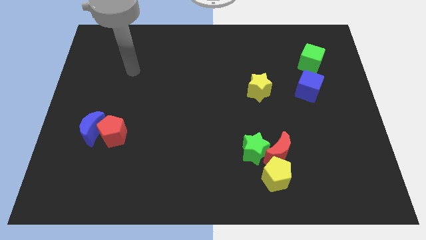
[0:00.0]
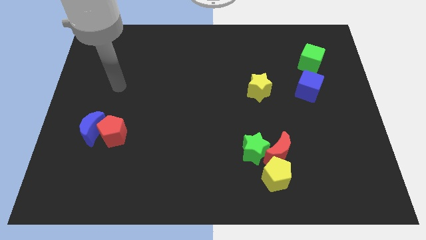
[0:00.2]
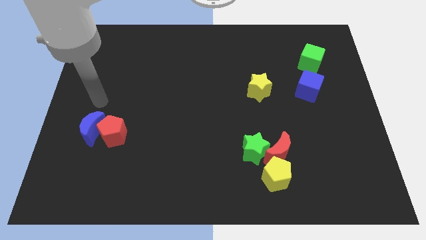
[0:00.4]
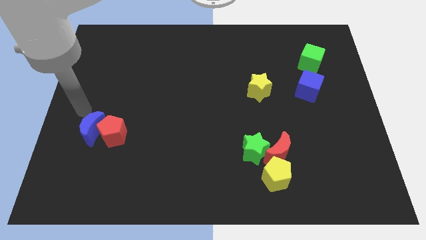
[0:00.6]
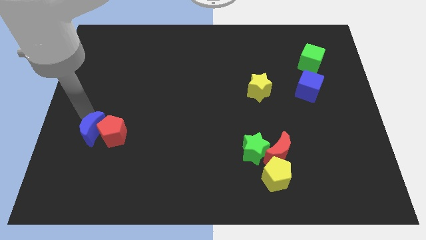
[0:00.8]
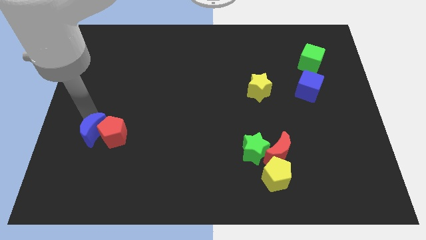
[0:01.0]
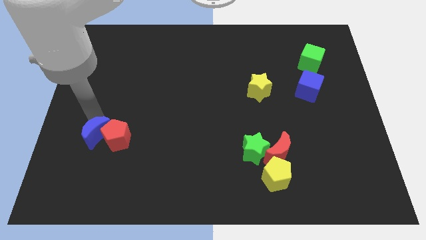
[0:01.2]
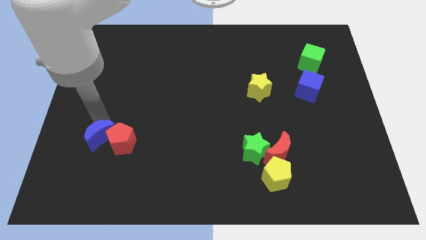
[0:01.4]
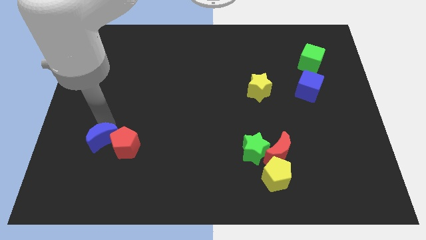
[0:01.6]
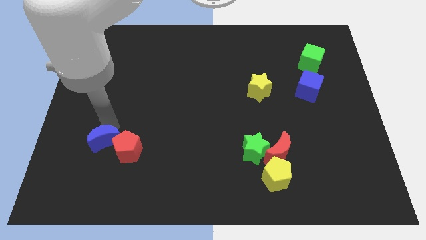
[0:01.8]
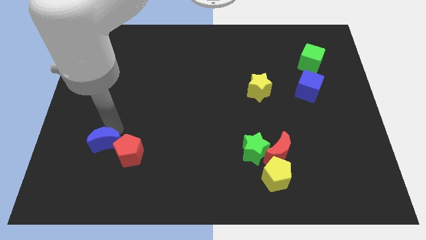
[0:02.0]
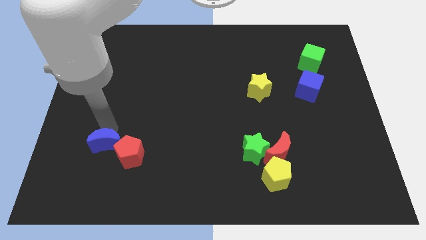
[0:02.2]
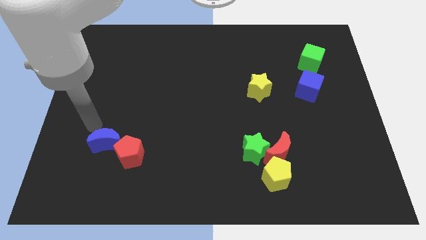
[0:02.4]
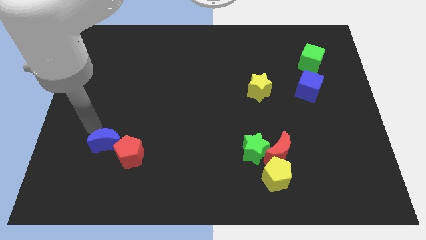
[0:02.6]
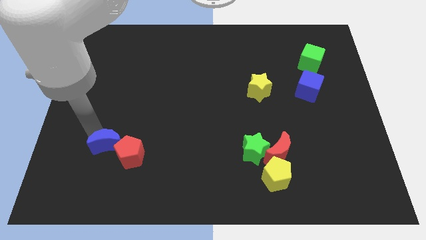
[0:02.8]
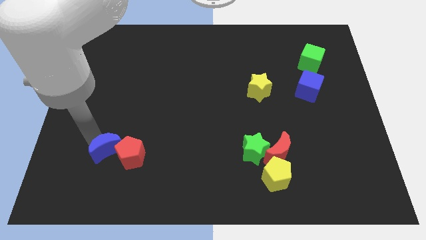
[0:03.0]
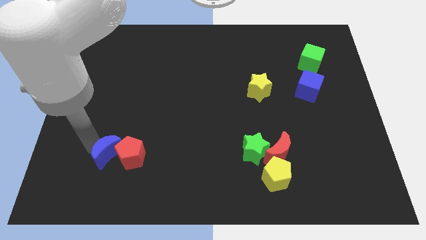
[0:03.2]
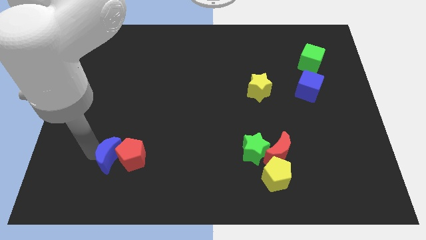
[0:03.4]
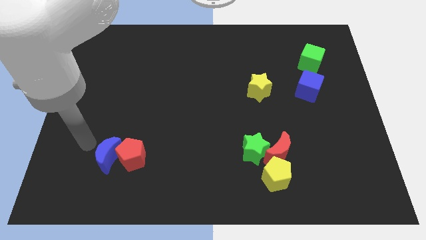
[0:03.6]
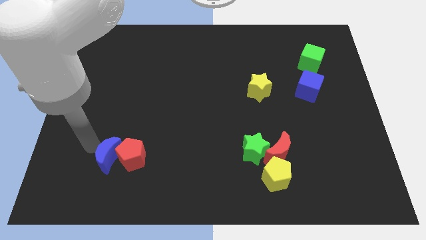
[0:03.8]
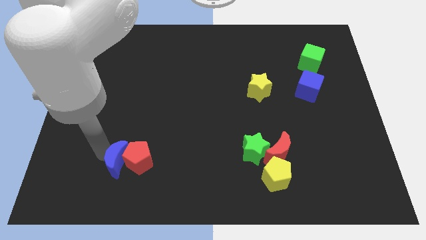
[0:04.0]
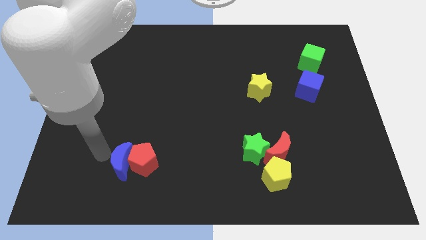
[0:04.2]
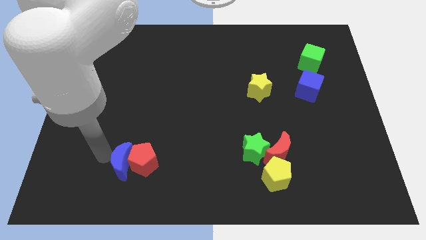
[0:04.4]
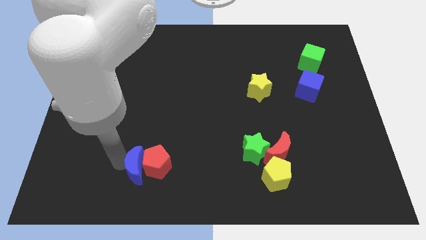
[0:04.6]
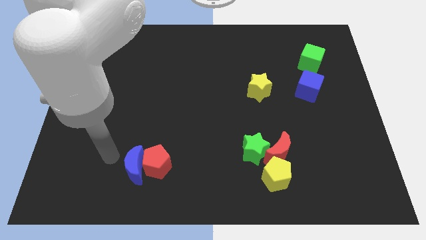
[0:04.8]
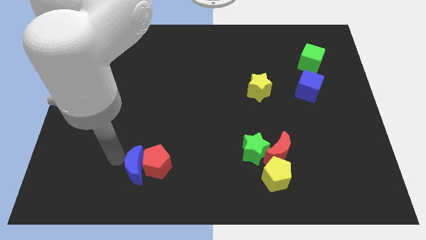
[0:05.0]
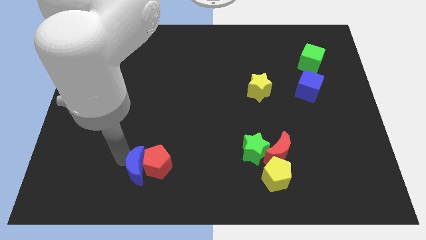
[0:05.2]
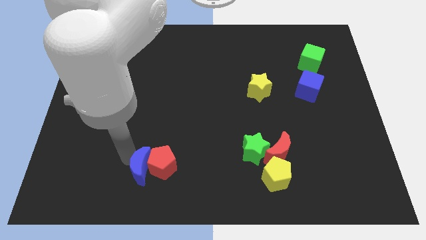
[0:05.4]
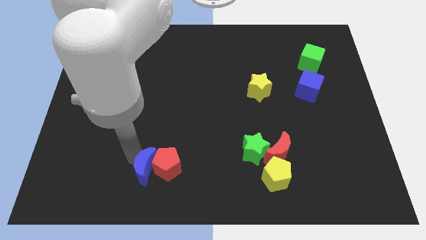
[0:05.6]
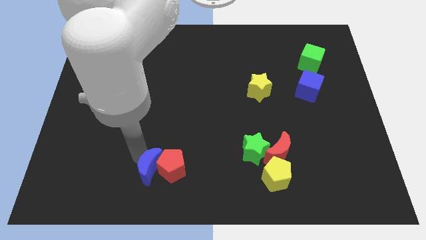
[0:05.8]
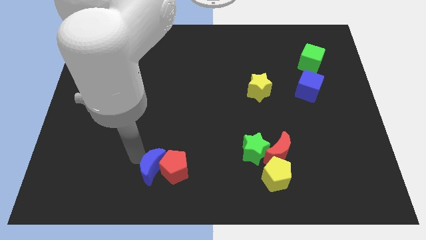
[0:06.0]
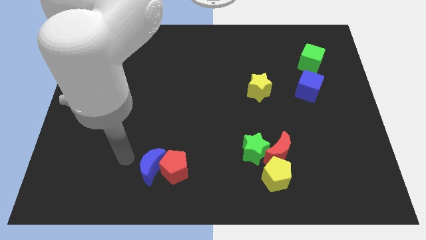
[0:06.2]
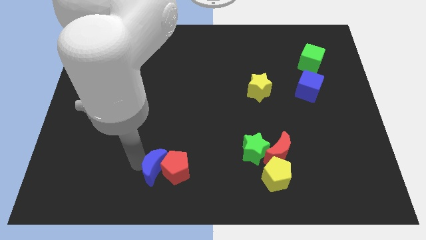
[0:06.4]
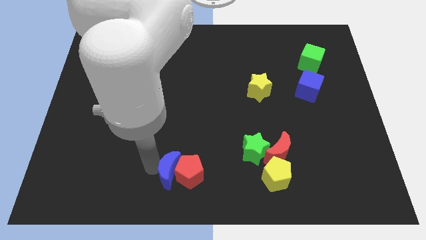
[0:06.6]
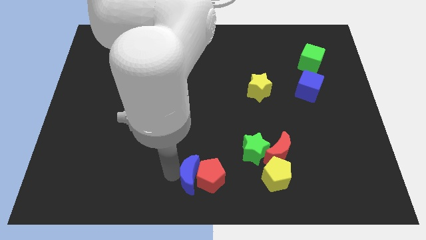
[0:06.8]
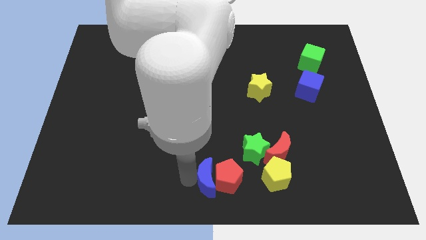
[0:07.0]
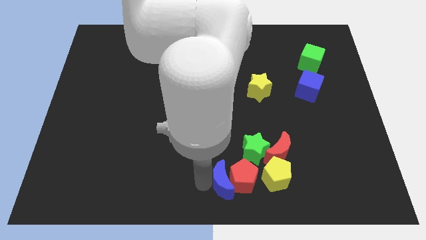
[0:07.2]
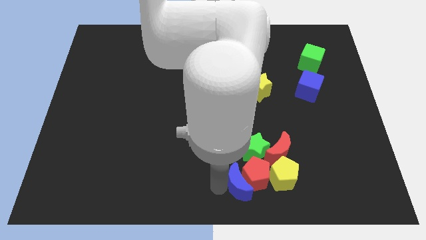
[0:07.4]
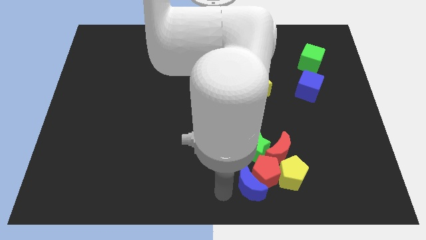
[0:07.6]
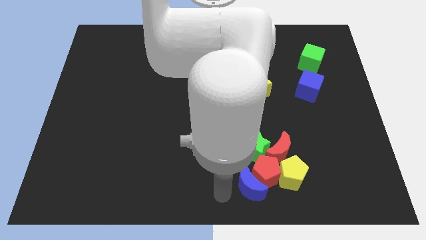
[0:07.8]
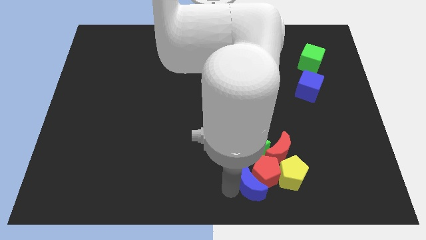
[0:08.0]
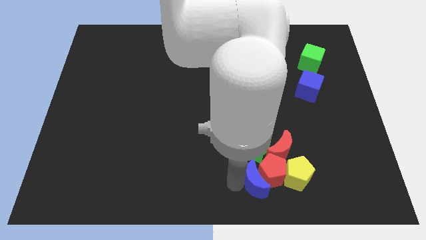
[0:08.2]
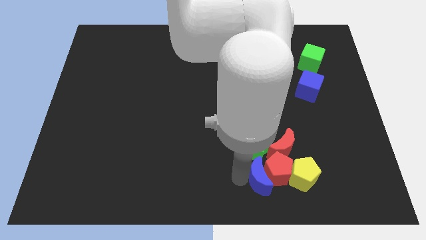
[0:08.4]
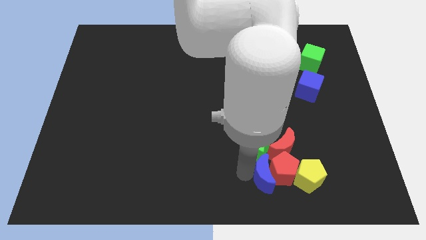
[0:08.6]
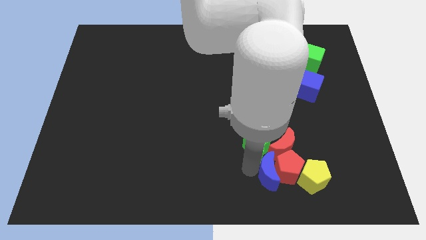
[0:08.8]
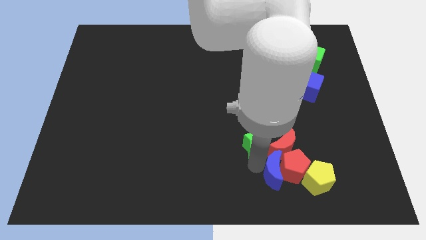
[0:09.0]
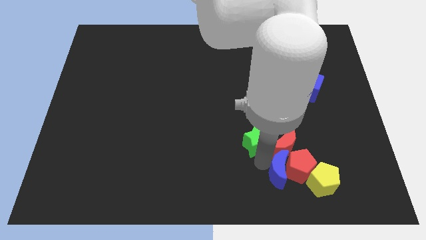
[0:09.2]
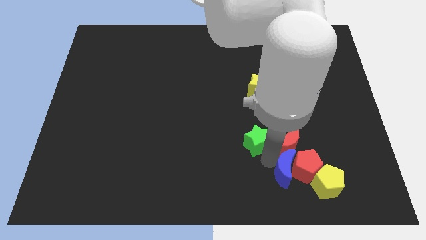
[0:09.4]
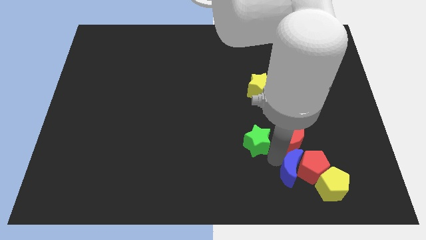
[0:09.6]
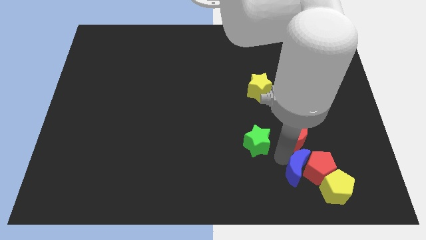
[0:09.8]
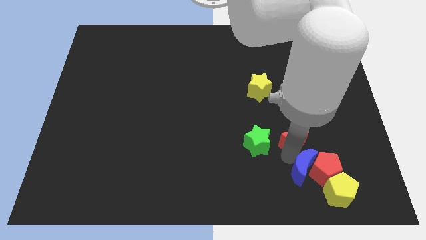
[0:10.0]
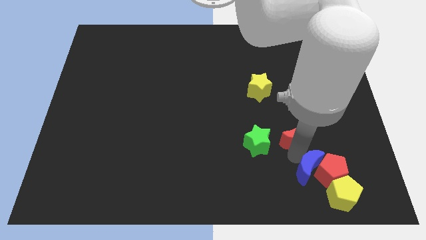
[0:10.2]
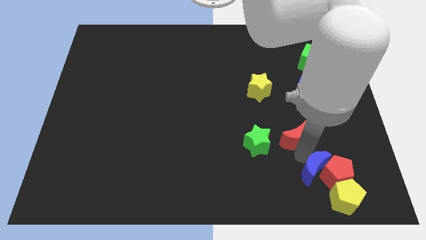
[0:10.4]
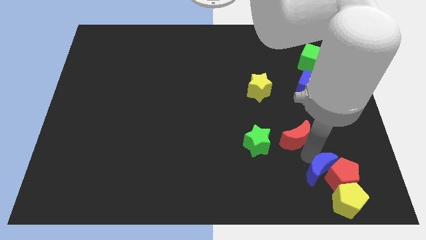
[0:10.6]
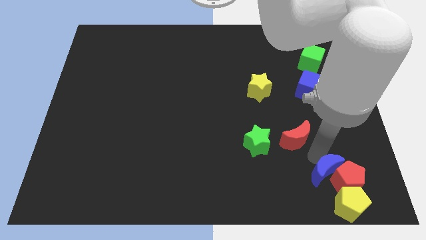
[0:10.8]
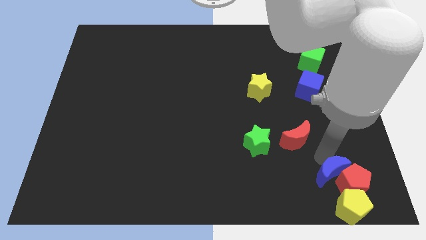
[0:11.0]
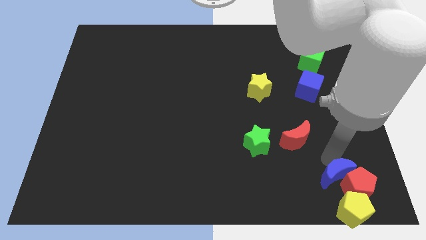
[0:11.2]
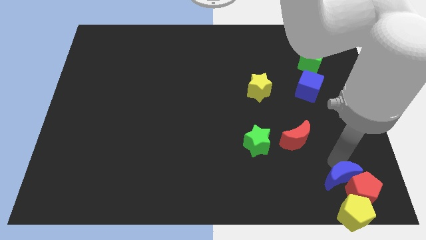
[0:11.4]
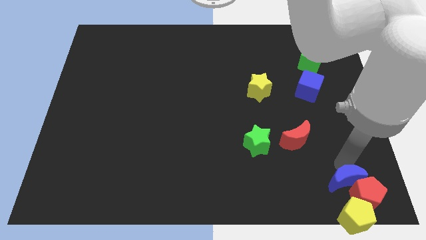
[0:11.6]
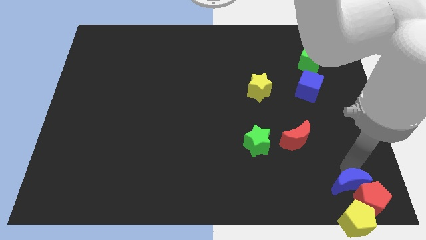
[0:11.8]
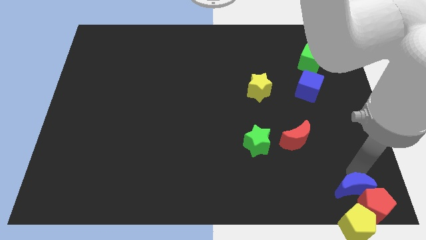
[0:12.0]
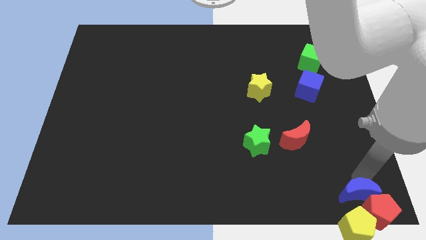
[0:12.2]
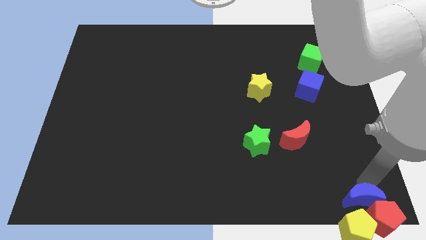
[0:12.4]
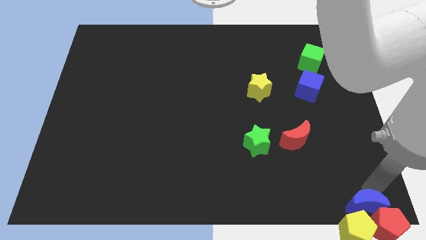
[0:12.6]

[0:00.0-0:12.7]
slide the blue moon to the yellow pentagon
